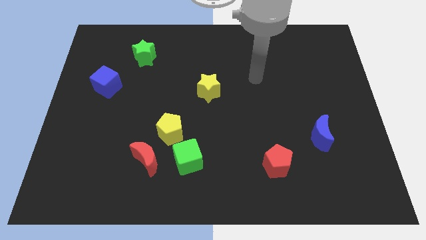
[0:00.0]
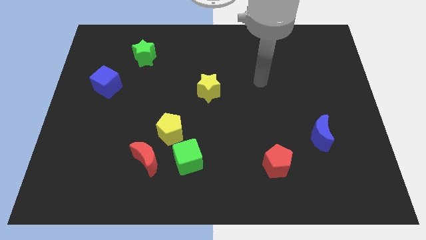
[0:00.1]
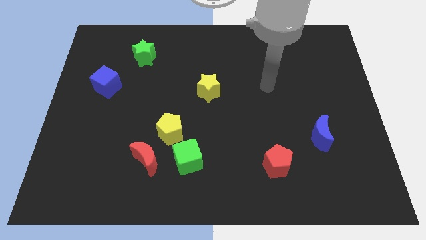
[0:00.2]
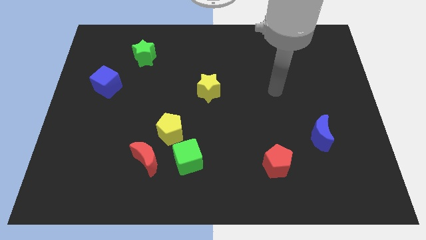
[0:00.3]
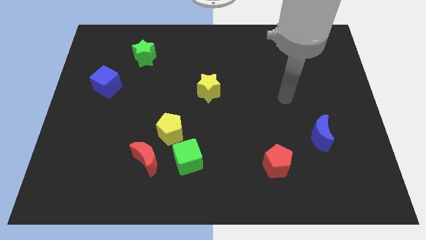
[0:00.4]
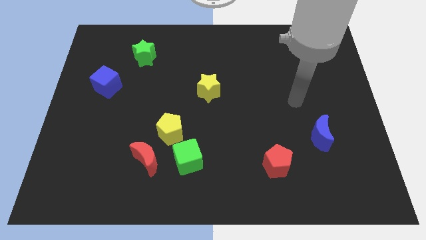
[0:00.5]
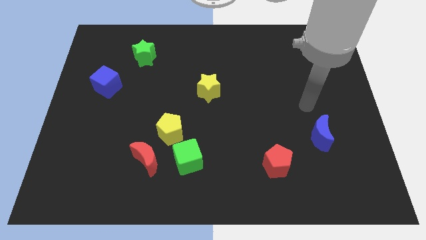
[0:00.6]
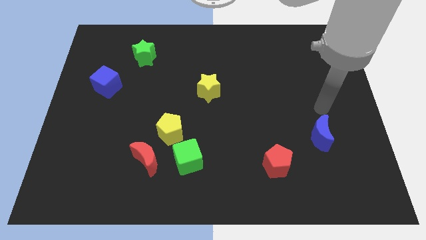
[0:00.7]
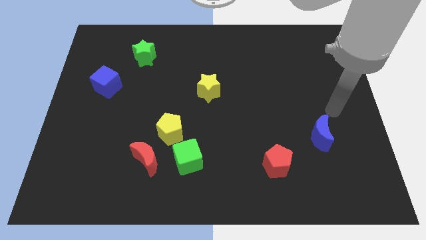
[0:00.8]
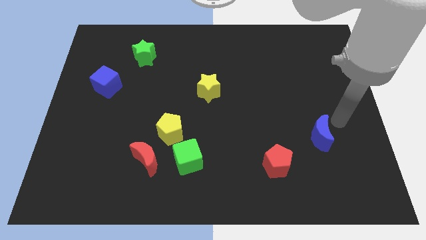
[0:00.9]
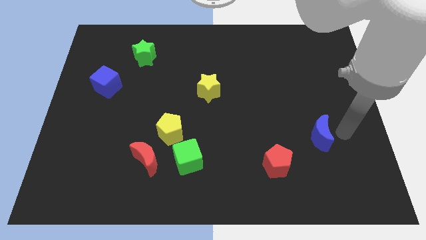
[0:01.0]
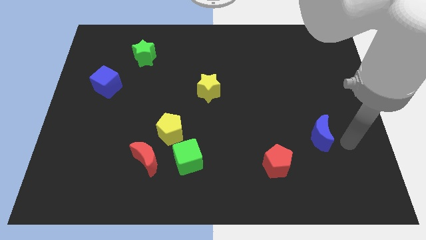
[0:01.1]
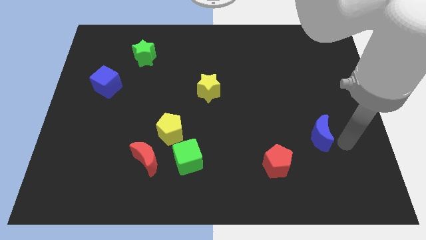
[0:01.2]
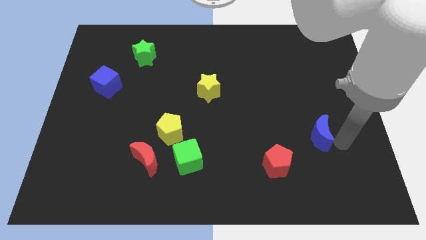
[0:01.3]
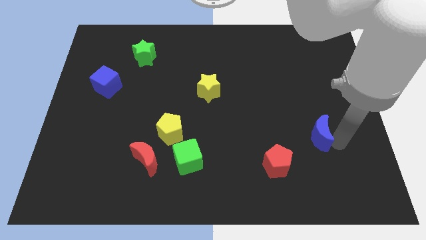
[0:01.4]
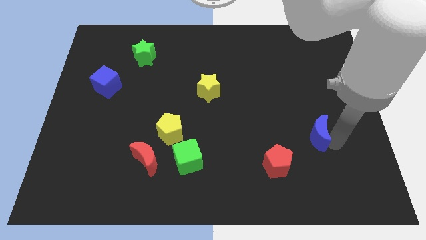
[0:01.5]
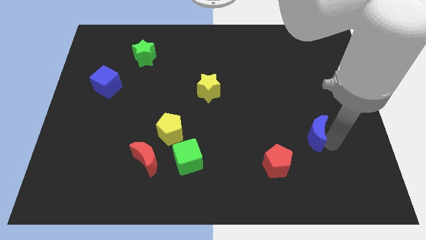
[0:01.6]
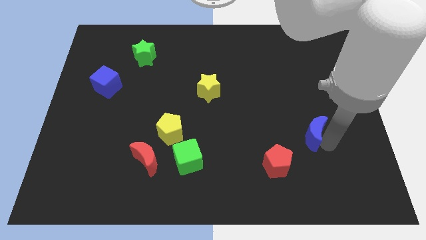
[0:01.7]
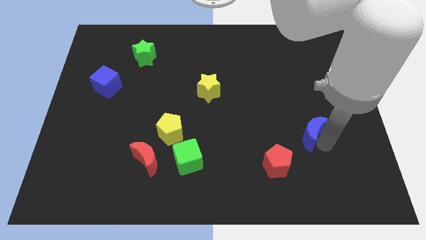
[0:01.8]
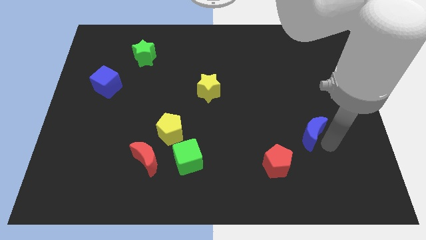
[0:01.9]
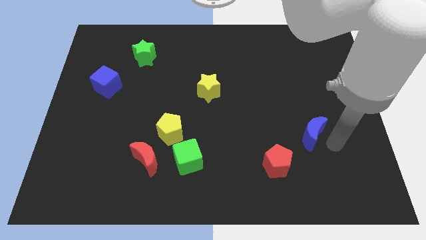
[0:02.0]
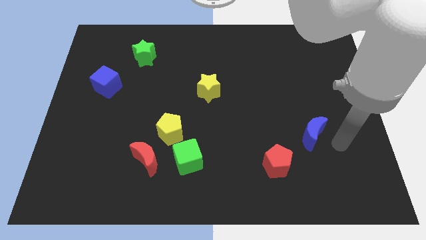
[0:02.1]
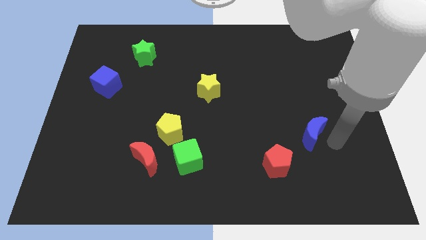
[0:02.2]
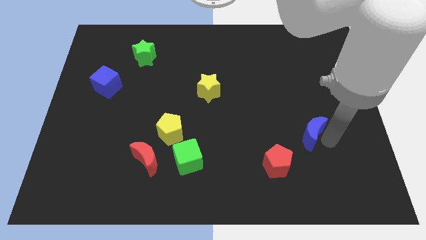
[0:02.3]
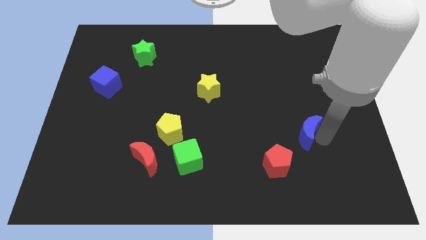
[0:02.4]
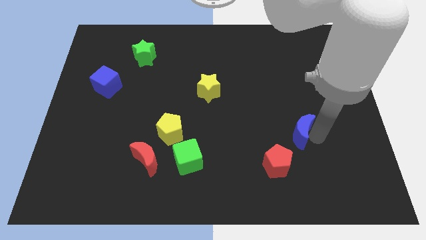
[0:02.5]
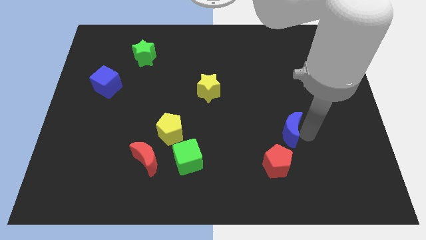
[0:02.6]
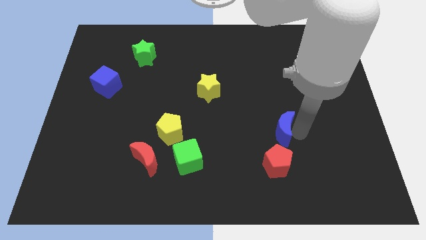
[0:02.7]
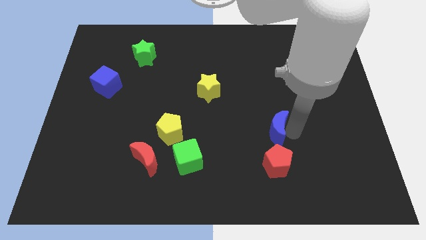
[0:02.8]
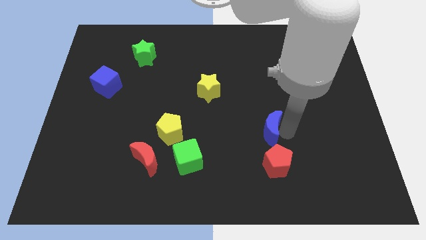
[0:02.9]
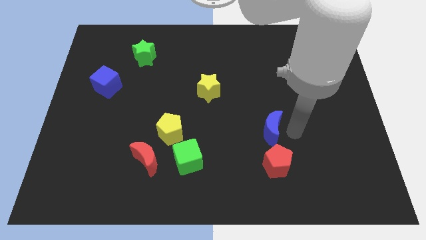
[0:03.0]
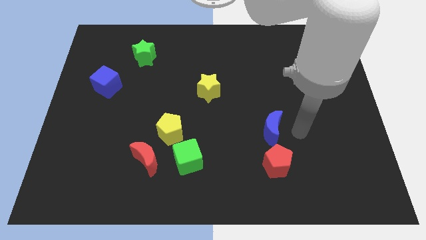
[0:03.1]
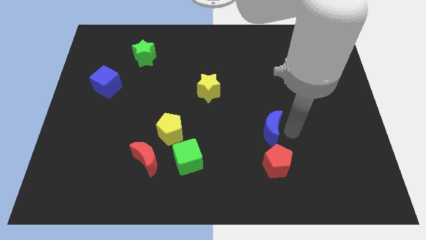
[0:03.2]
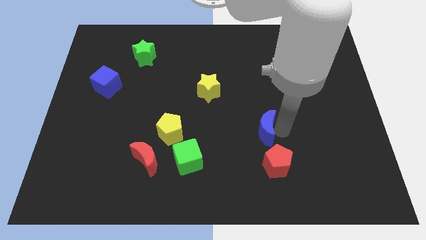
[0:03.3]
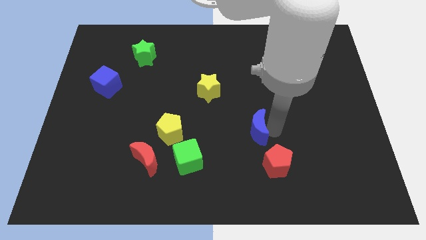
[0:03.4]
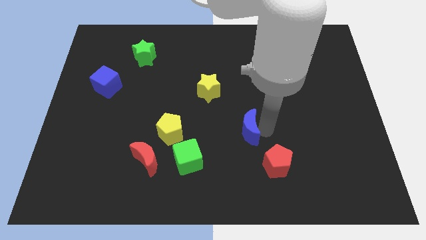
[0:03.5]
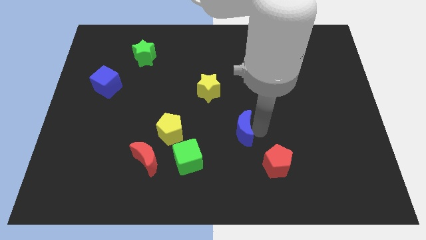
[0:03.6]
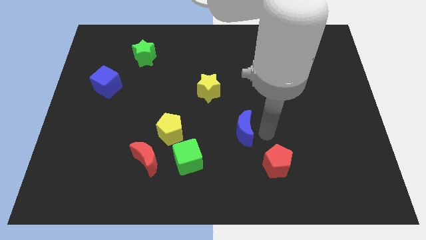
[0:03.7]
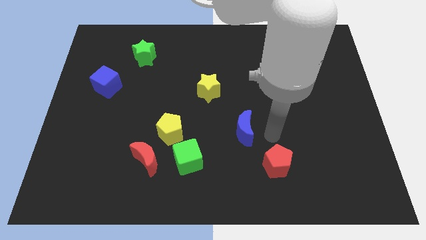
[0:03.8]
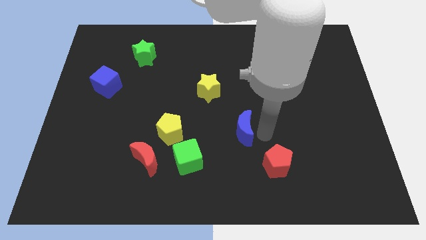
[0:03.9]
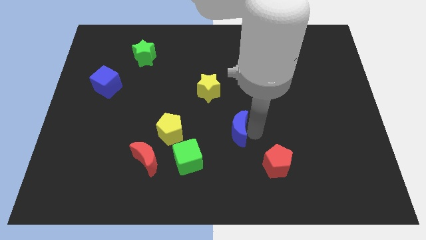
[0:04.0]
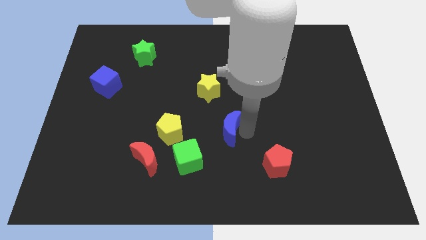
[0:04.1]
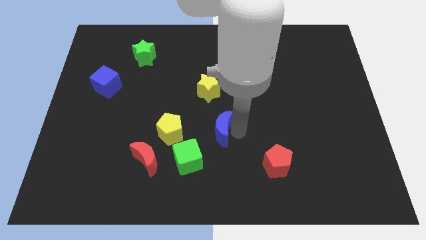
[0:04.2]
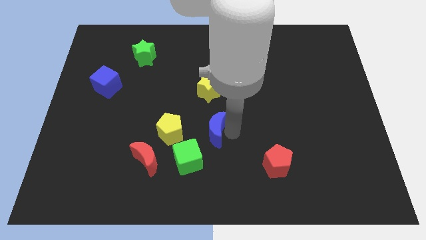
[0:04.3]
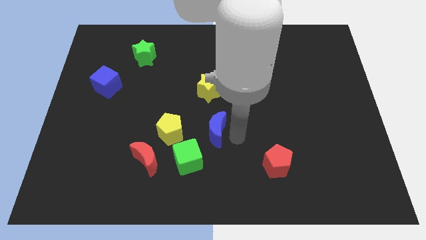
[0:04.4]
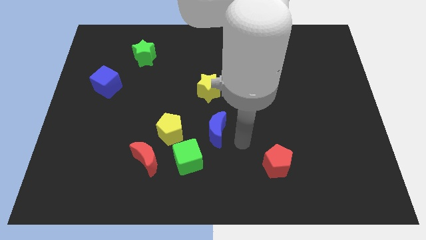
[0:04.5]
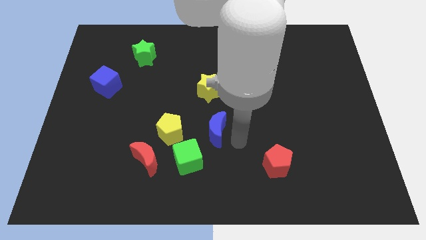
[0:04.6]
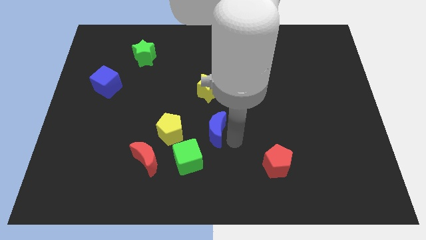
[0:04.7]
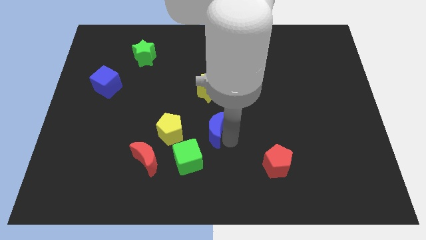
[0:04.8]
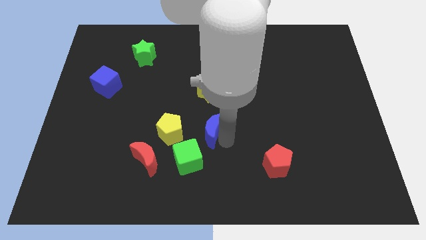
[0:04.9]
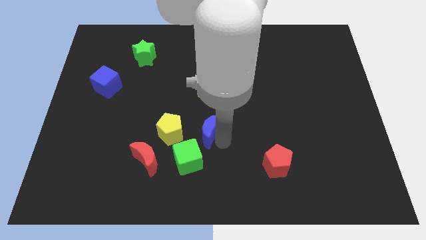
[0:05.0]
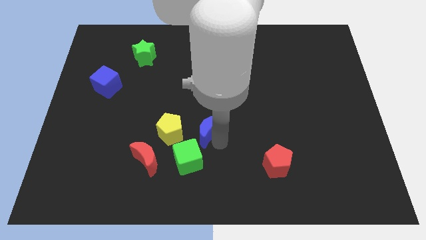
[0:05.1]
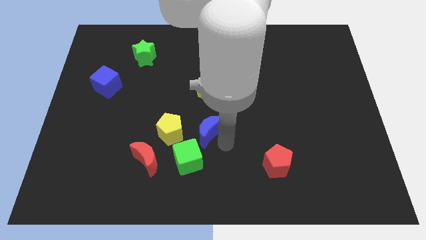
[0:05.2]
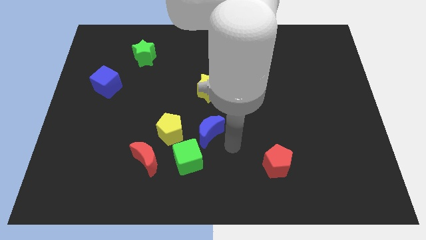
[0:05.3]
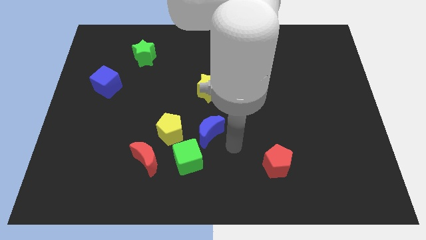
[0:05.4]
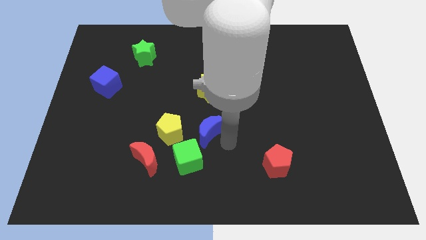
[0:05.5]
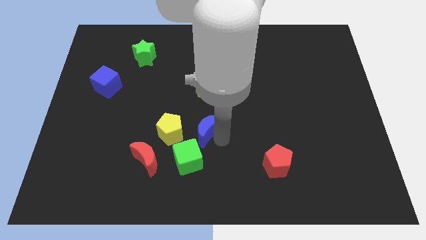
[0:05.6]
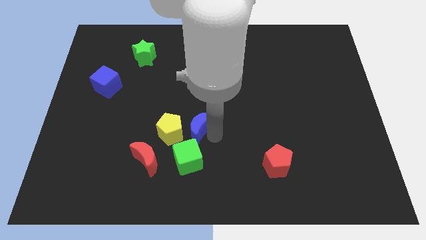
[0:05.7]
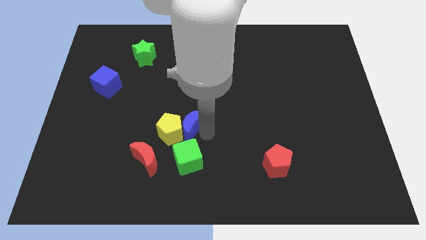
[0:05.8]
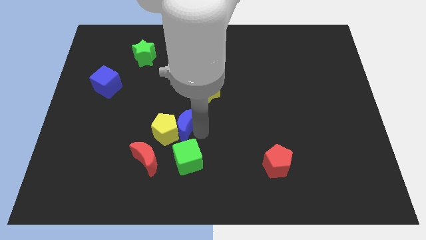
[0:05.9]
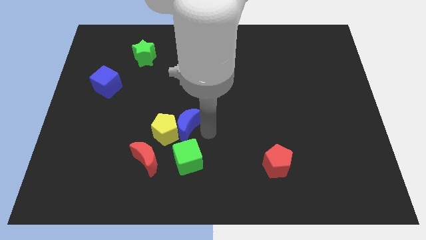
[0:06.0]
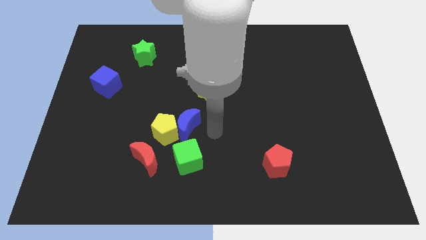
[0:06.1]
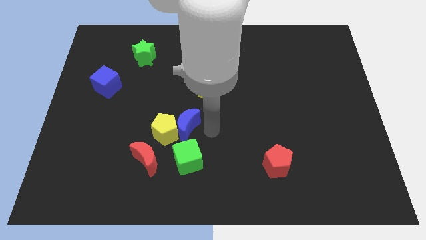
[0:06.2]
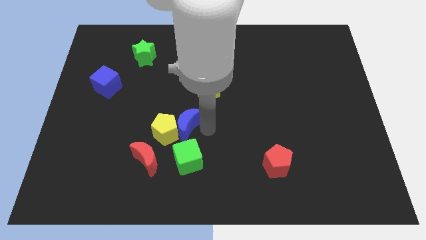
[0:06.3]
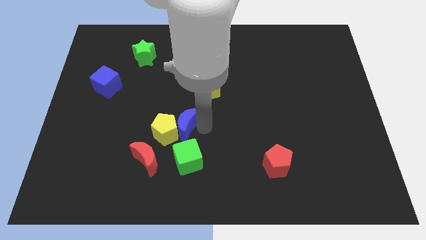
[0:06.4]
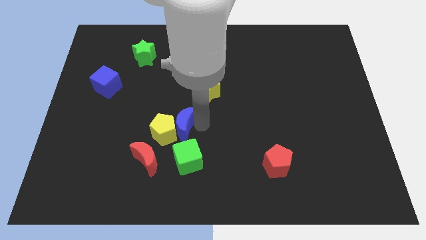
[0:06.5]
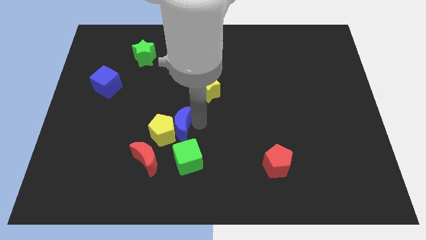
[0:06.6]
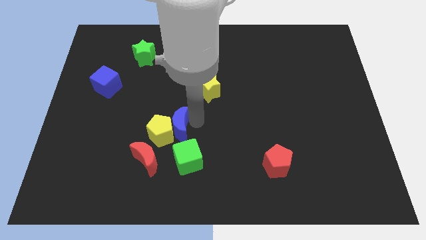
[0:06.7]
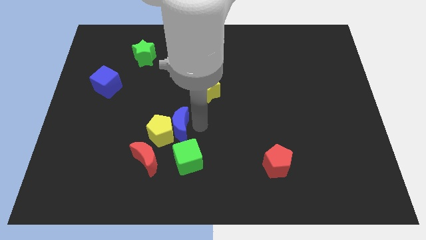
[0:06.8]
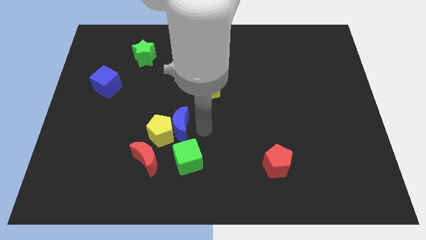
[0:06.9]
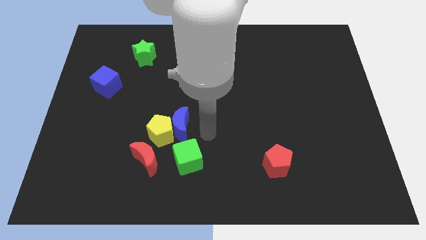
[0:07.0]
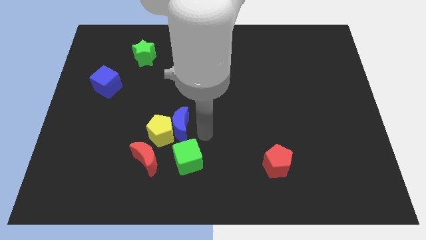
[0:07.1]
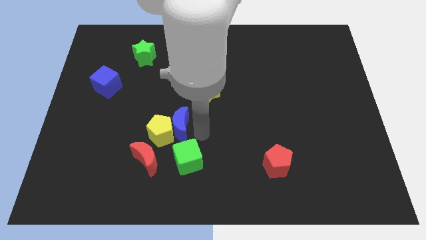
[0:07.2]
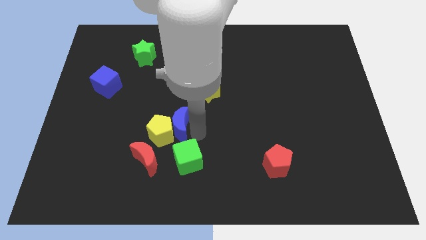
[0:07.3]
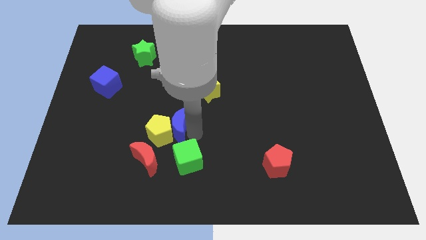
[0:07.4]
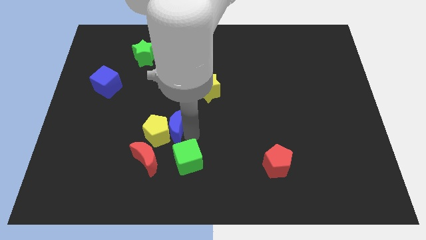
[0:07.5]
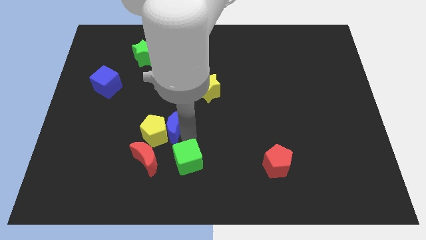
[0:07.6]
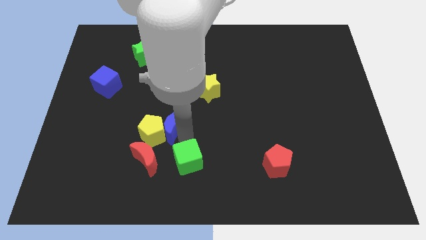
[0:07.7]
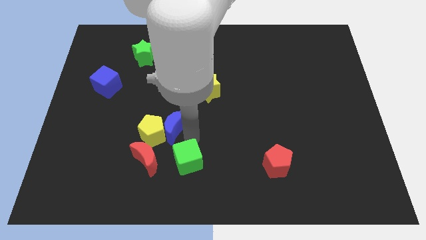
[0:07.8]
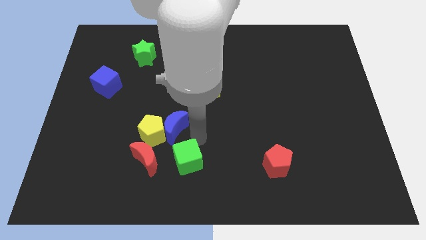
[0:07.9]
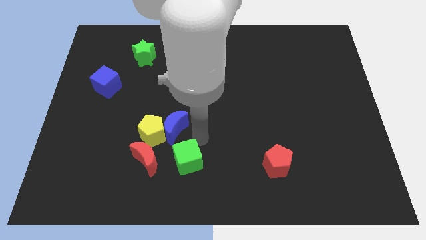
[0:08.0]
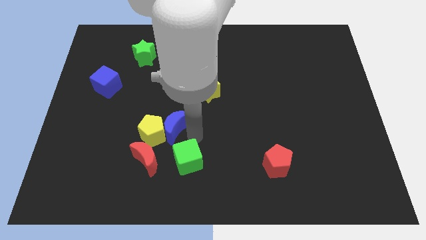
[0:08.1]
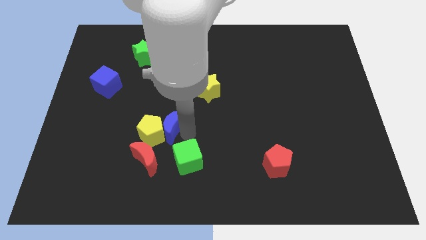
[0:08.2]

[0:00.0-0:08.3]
put the blue moon to the top side of the red moon
